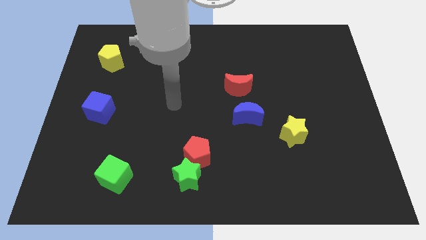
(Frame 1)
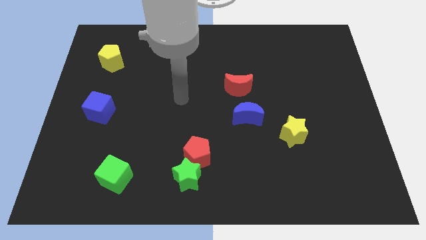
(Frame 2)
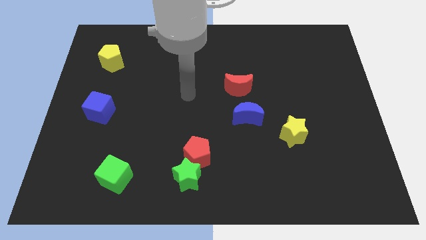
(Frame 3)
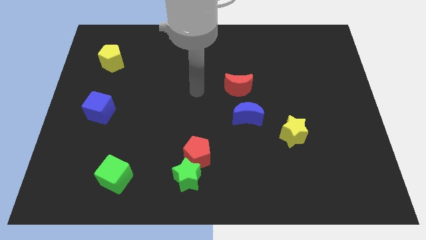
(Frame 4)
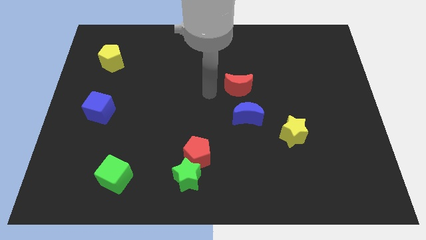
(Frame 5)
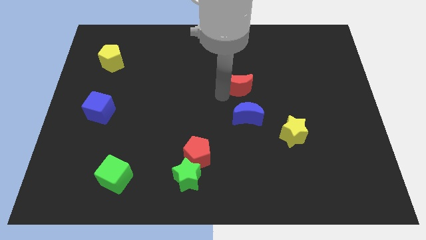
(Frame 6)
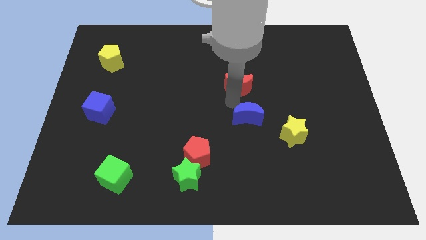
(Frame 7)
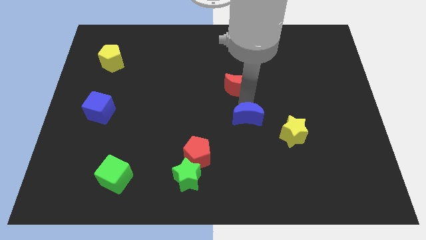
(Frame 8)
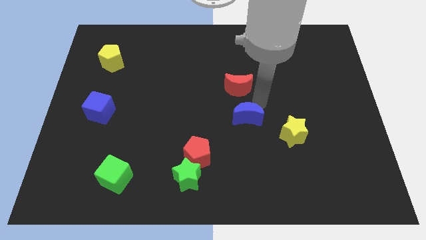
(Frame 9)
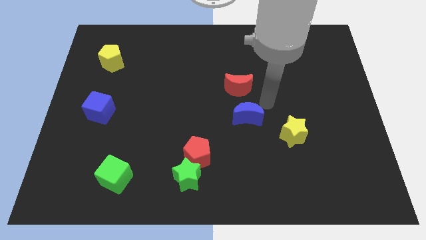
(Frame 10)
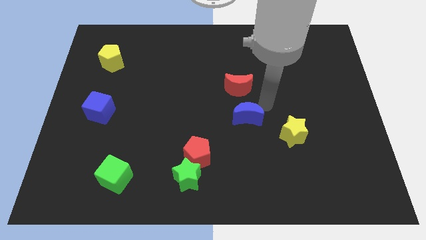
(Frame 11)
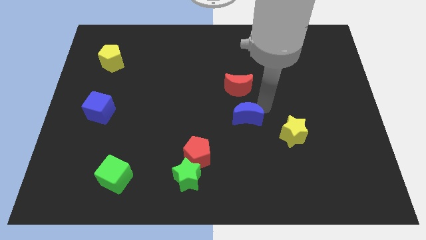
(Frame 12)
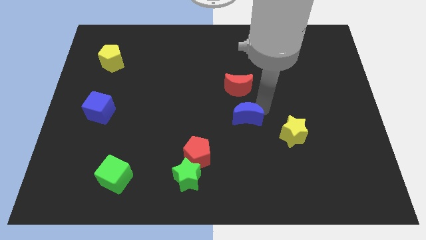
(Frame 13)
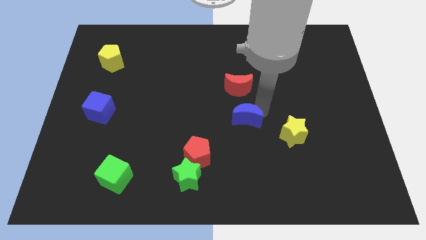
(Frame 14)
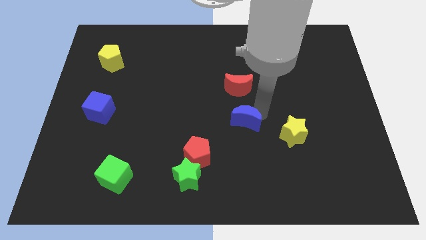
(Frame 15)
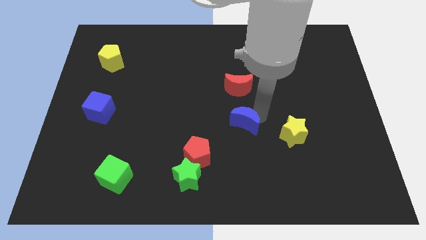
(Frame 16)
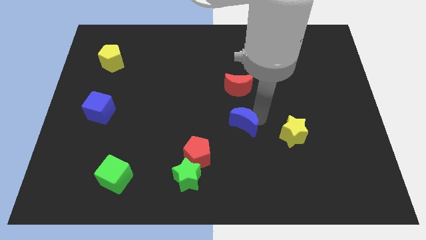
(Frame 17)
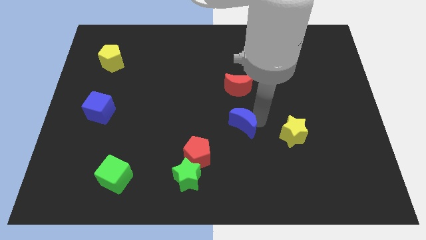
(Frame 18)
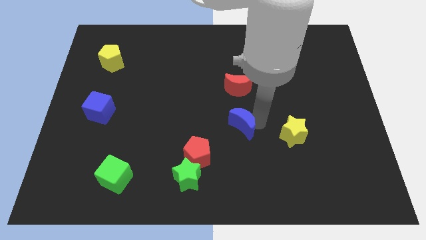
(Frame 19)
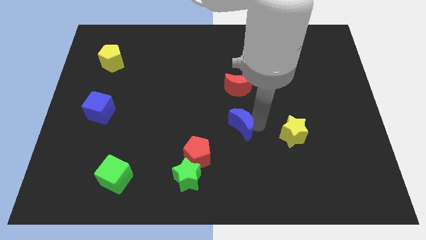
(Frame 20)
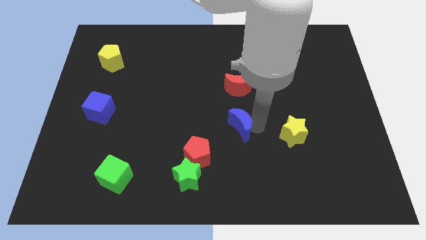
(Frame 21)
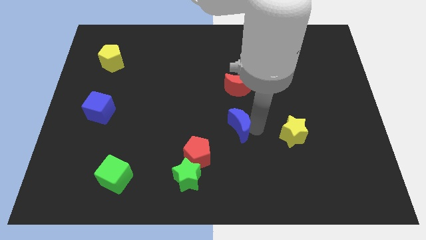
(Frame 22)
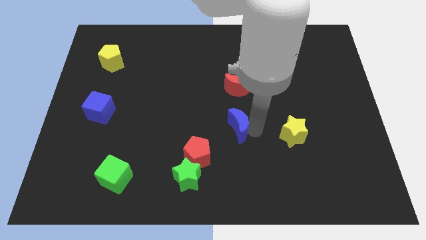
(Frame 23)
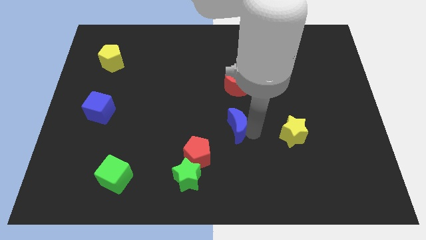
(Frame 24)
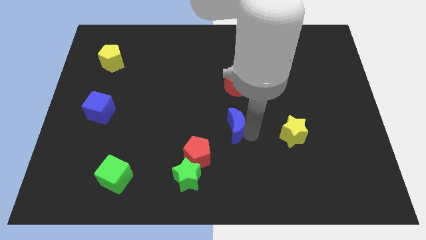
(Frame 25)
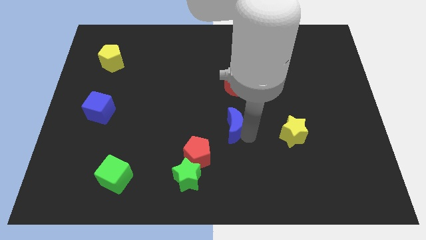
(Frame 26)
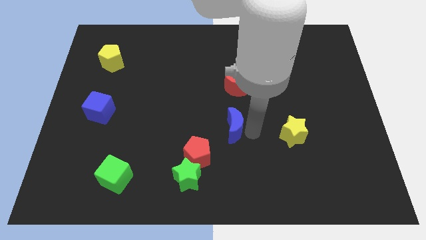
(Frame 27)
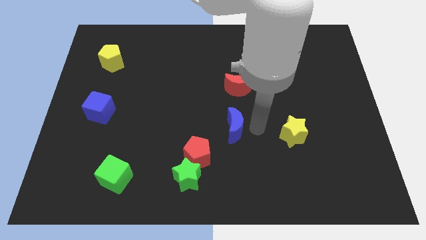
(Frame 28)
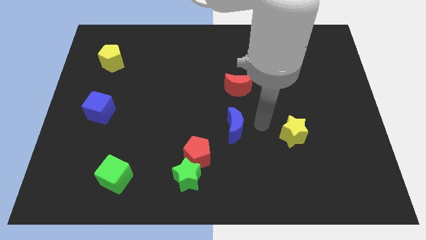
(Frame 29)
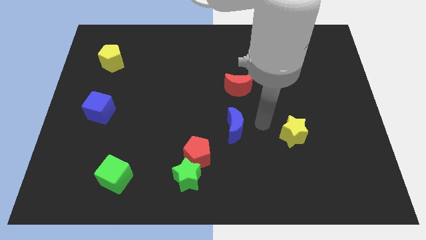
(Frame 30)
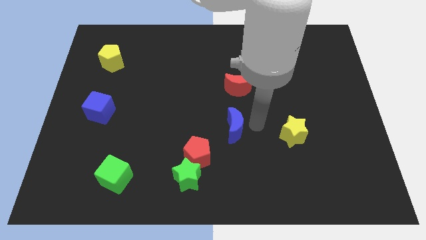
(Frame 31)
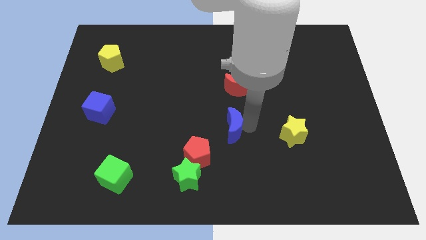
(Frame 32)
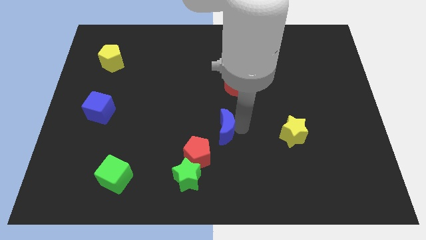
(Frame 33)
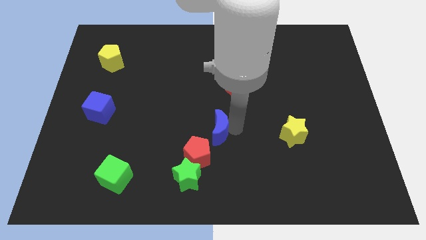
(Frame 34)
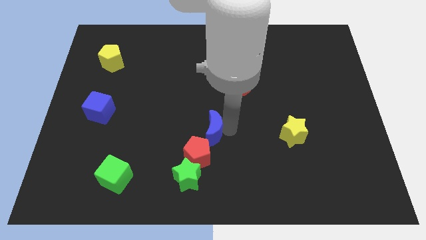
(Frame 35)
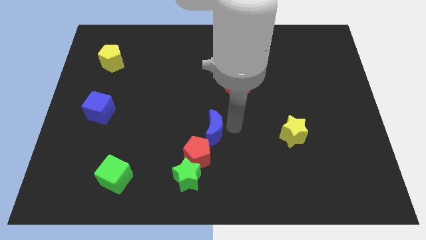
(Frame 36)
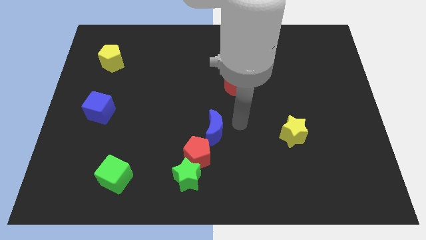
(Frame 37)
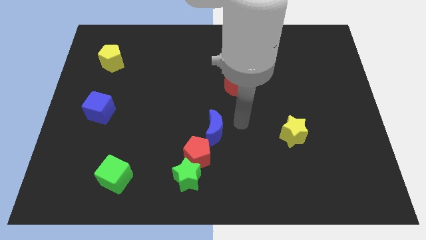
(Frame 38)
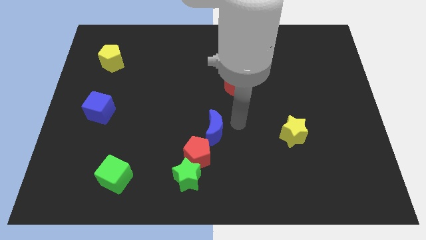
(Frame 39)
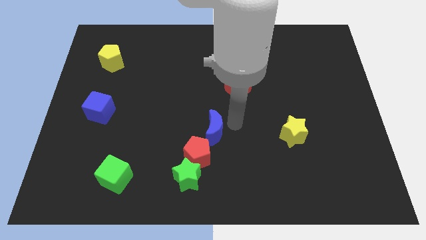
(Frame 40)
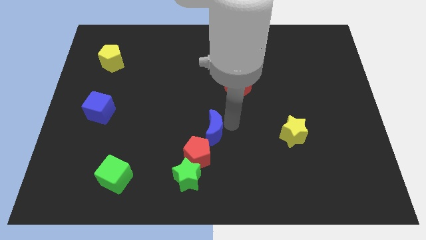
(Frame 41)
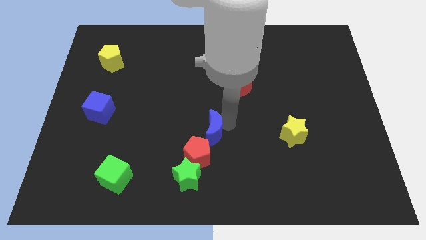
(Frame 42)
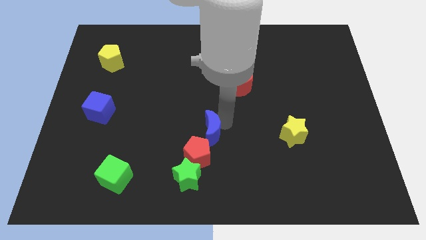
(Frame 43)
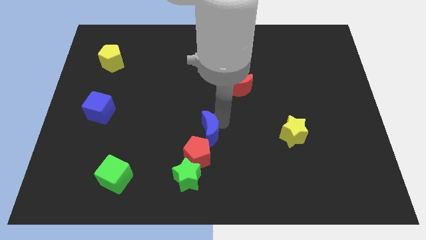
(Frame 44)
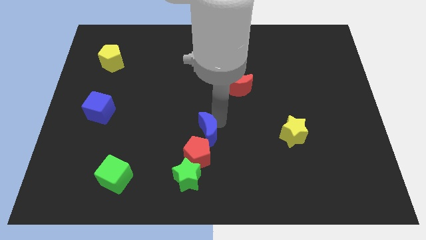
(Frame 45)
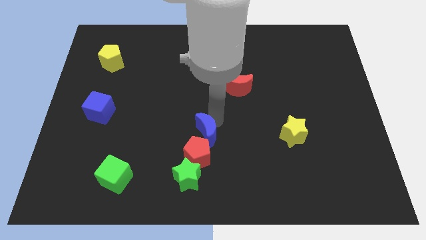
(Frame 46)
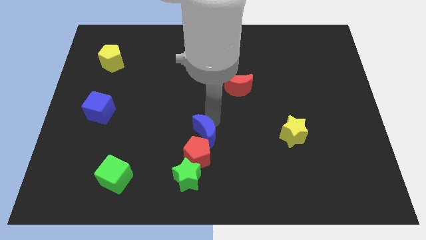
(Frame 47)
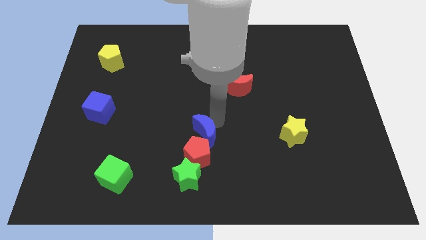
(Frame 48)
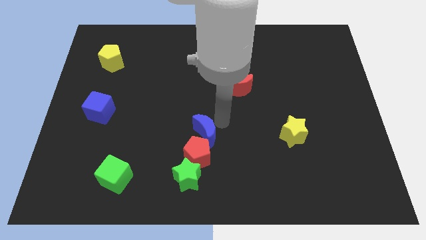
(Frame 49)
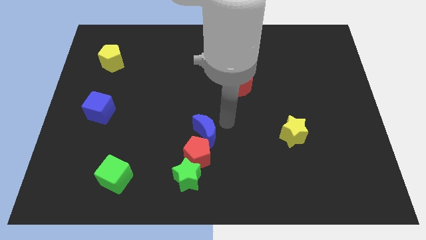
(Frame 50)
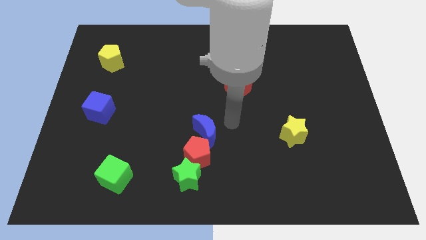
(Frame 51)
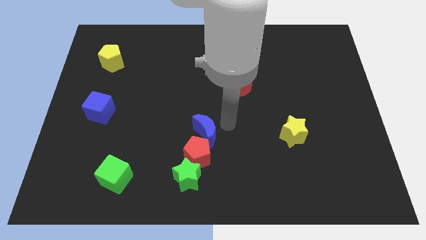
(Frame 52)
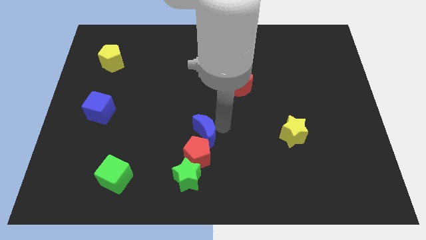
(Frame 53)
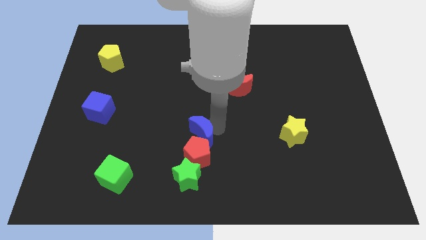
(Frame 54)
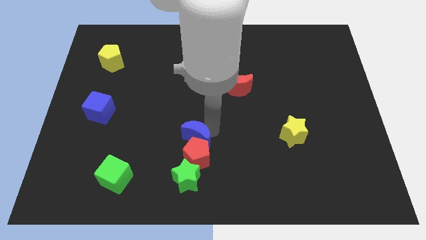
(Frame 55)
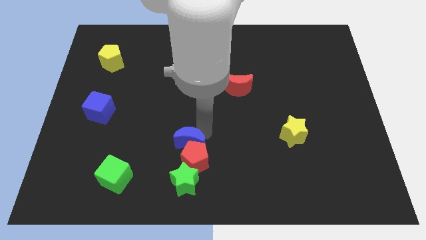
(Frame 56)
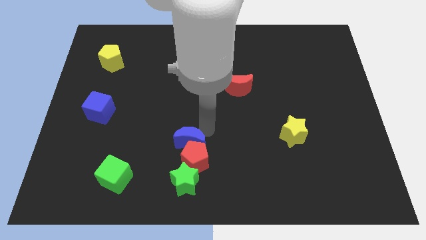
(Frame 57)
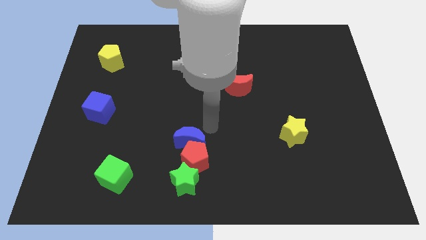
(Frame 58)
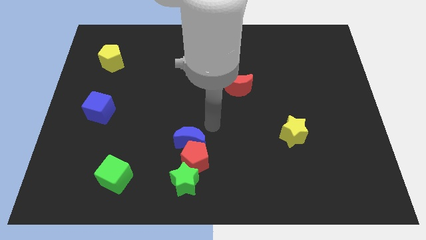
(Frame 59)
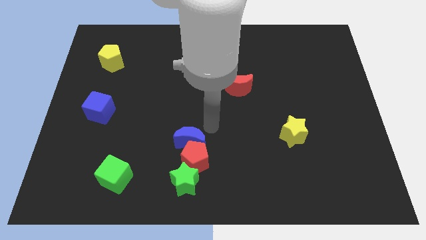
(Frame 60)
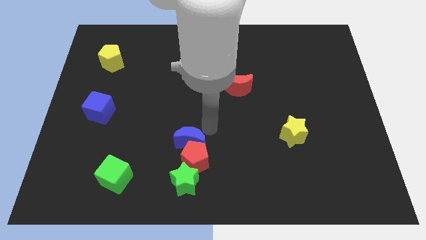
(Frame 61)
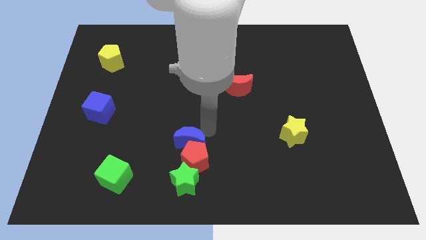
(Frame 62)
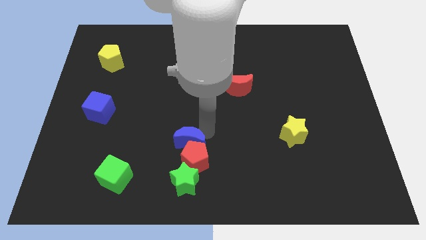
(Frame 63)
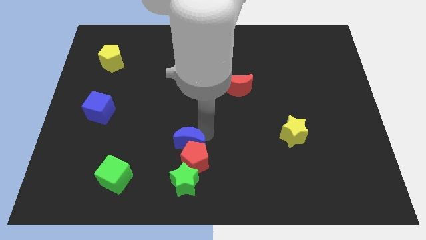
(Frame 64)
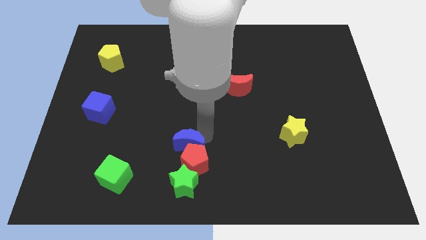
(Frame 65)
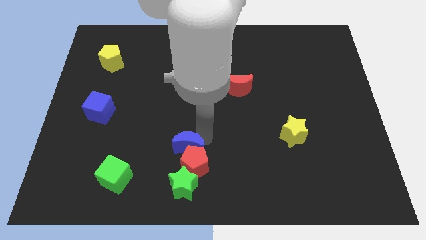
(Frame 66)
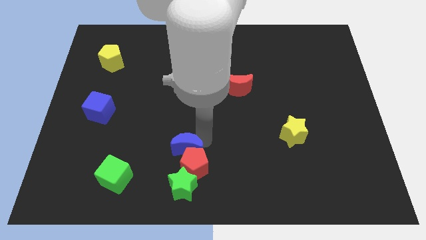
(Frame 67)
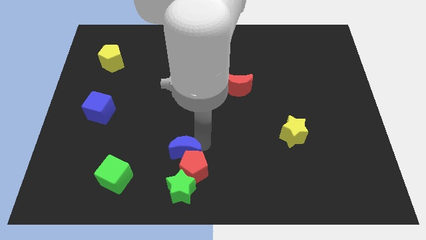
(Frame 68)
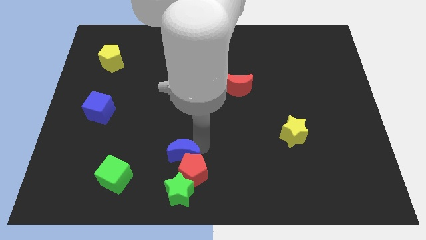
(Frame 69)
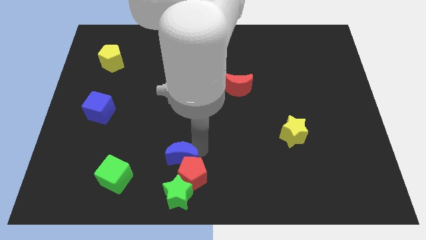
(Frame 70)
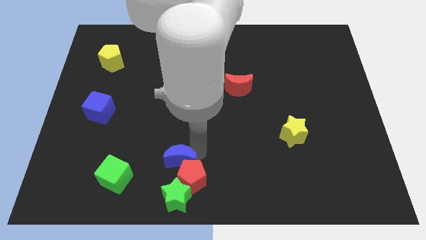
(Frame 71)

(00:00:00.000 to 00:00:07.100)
slide the blue moon just right of the green cube

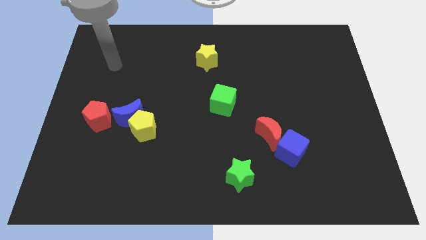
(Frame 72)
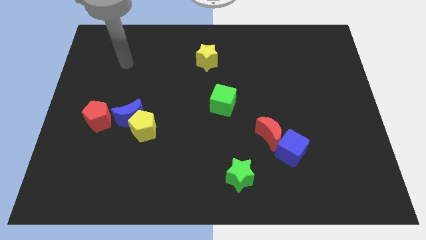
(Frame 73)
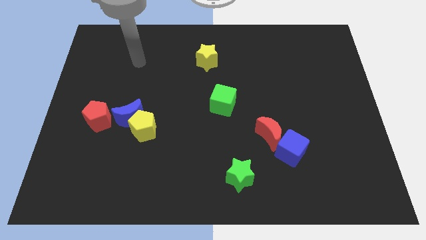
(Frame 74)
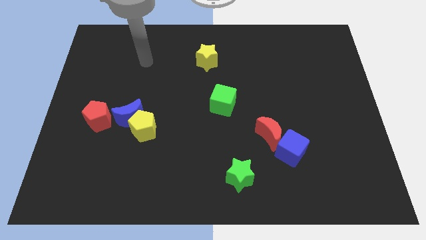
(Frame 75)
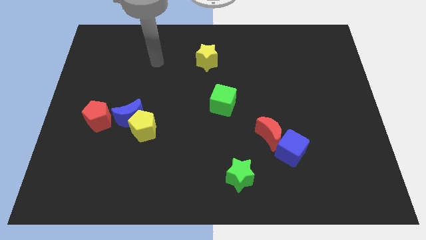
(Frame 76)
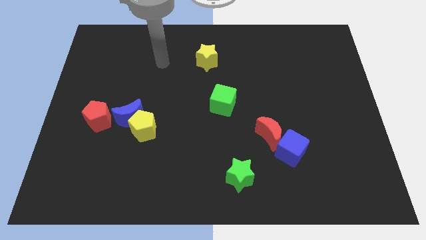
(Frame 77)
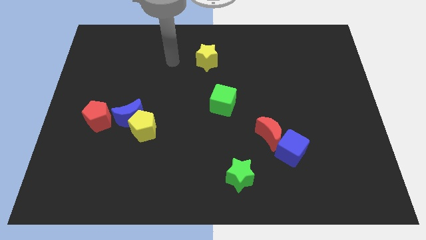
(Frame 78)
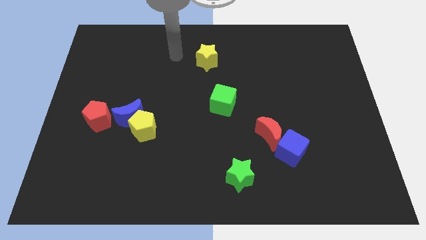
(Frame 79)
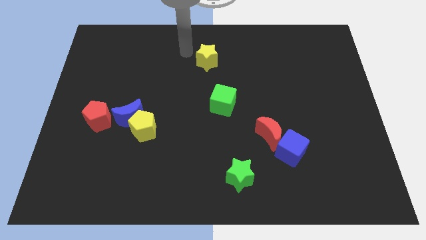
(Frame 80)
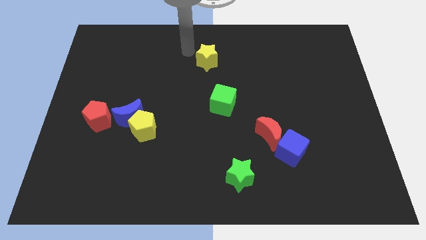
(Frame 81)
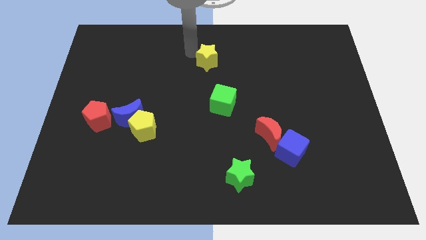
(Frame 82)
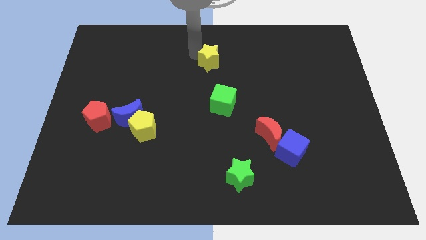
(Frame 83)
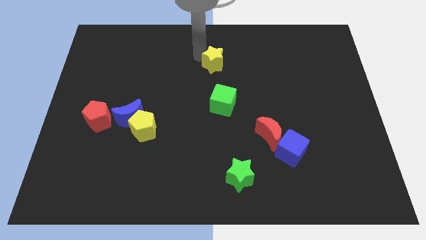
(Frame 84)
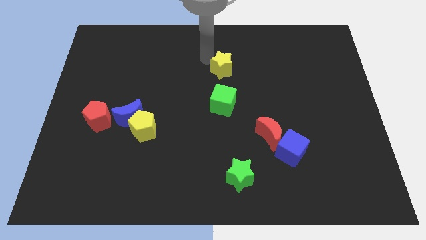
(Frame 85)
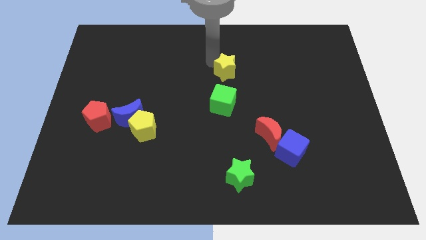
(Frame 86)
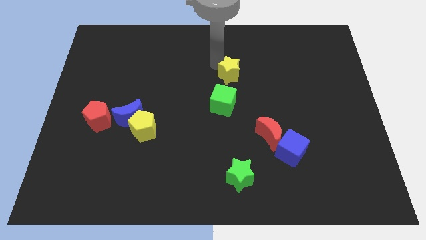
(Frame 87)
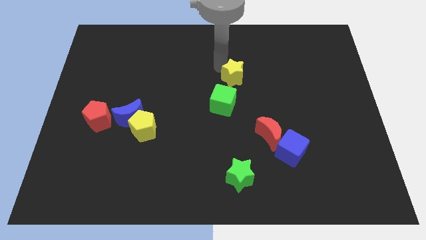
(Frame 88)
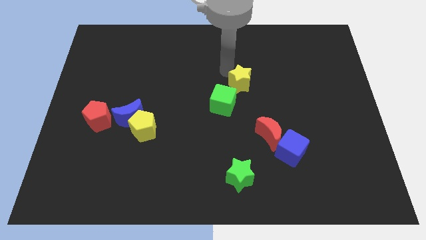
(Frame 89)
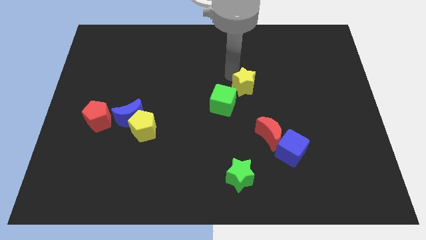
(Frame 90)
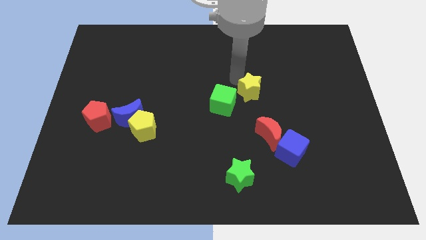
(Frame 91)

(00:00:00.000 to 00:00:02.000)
push the yellow star above the red moon
